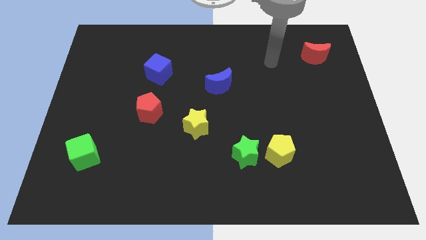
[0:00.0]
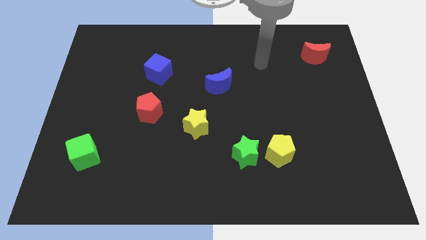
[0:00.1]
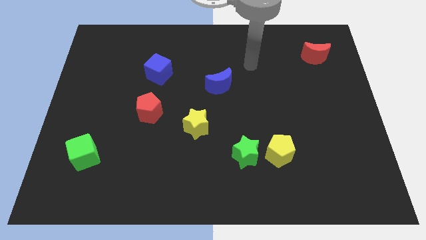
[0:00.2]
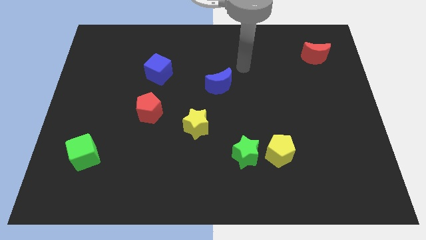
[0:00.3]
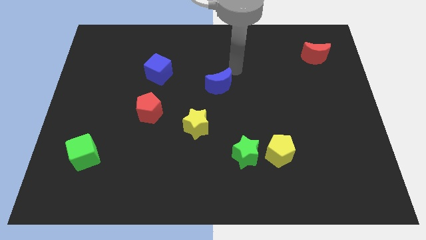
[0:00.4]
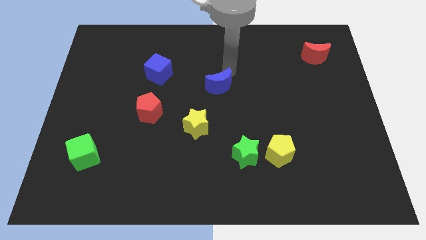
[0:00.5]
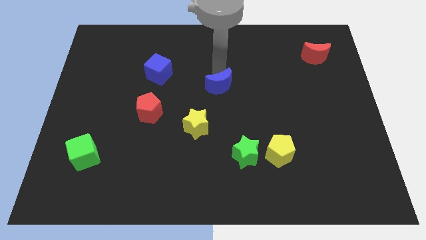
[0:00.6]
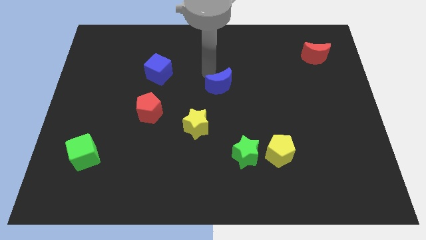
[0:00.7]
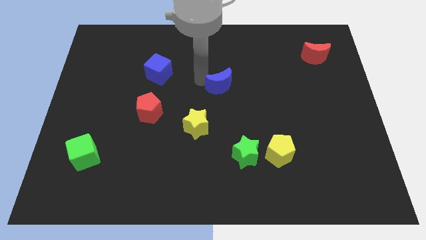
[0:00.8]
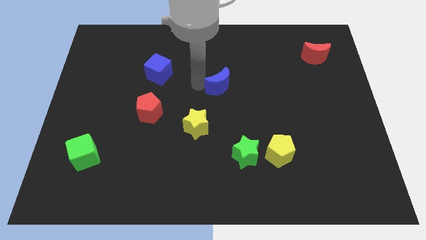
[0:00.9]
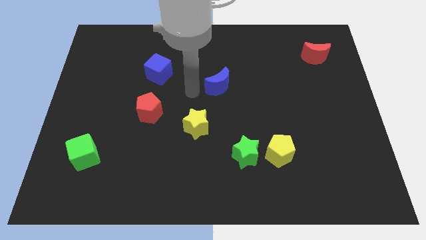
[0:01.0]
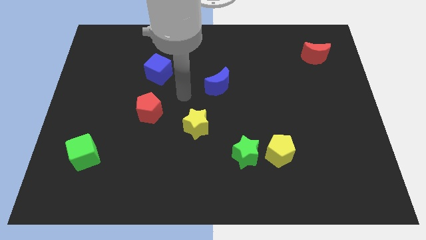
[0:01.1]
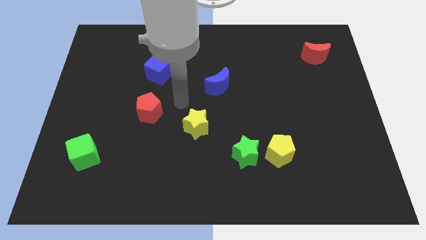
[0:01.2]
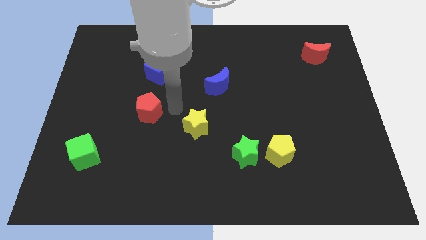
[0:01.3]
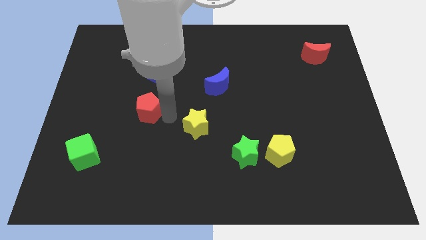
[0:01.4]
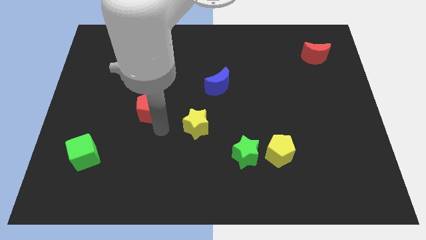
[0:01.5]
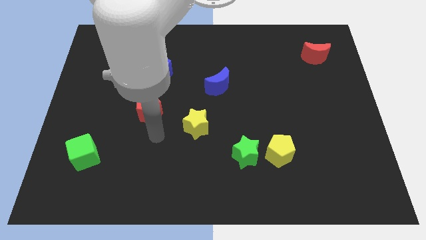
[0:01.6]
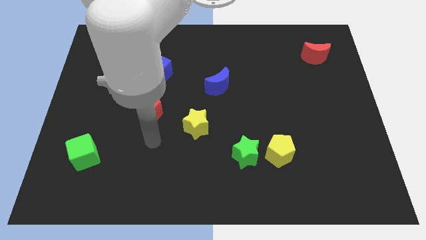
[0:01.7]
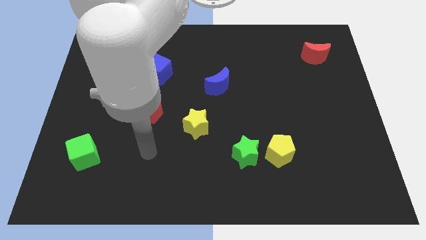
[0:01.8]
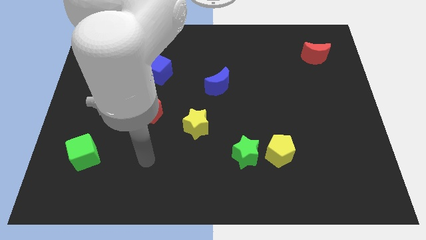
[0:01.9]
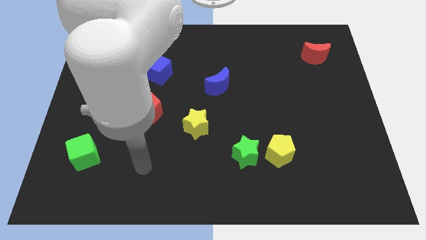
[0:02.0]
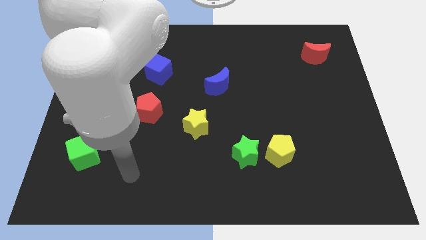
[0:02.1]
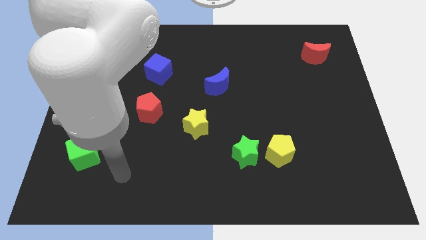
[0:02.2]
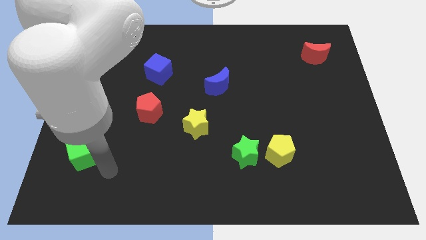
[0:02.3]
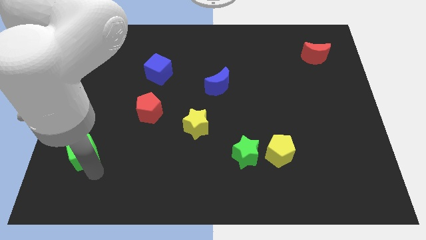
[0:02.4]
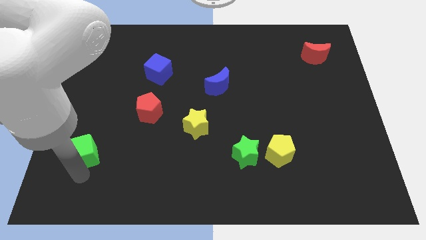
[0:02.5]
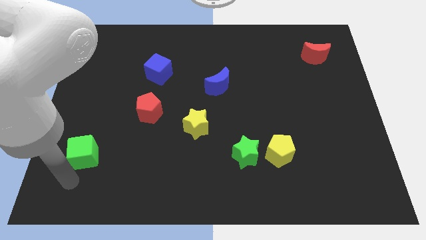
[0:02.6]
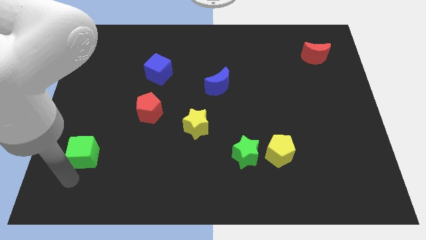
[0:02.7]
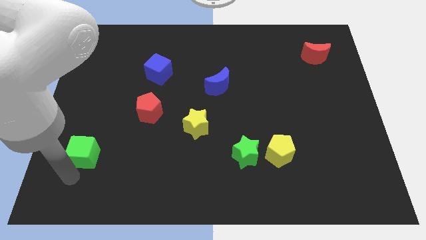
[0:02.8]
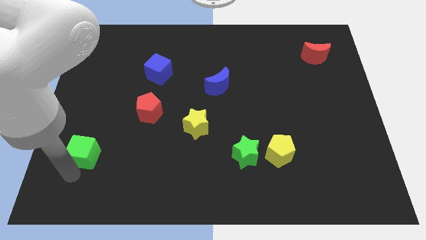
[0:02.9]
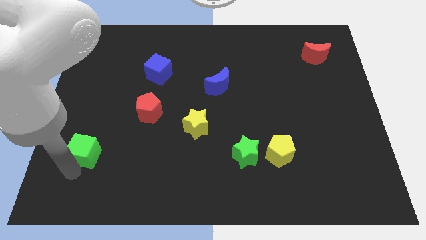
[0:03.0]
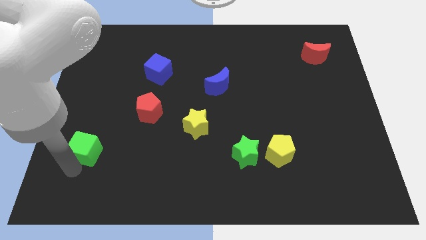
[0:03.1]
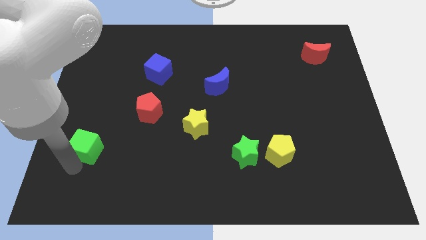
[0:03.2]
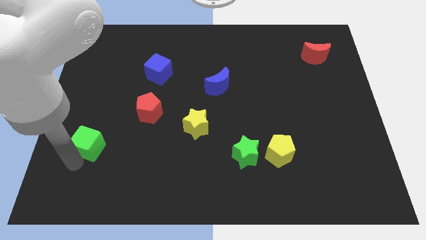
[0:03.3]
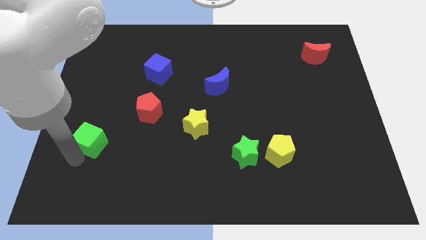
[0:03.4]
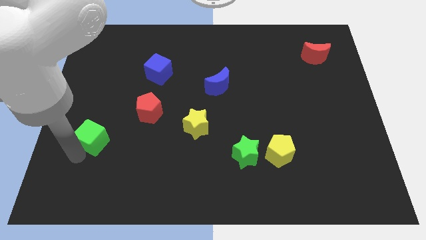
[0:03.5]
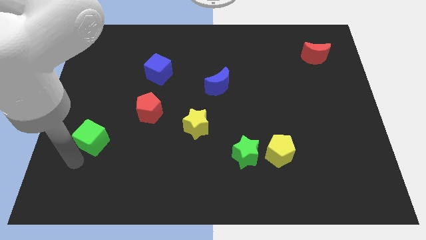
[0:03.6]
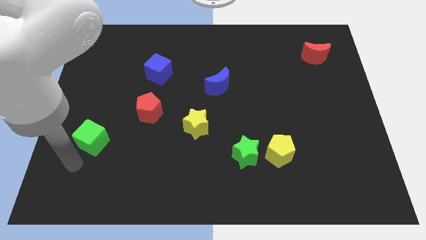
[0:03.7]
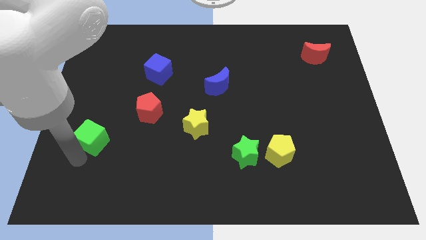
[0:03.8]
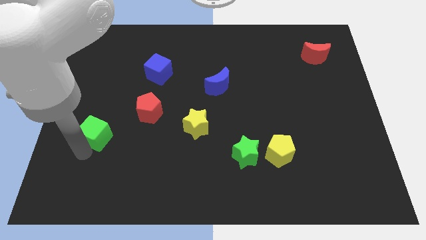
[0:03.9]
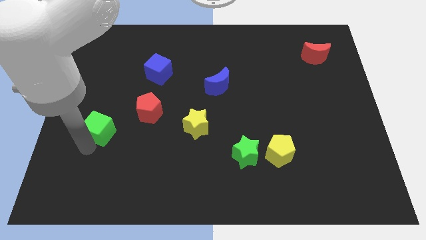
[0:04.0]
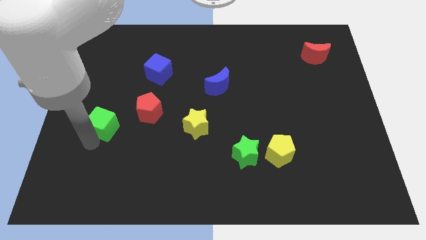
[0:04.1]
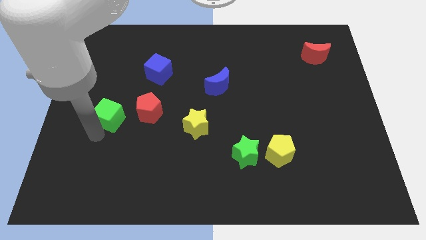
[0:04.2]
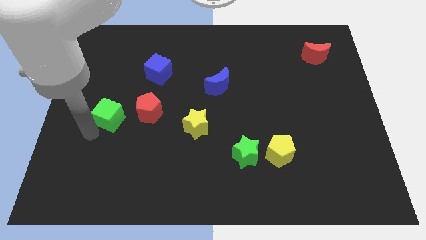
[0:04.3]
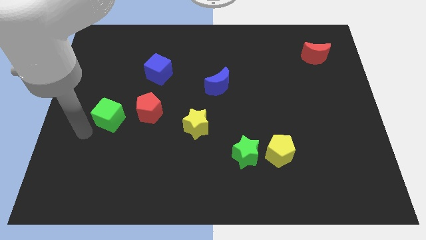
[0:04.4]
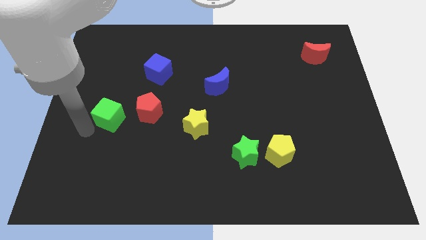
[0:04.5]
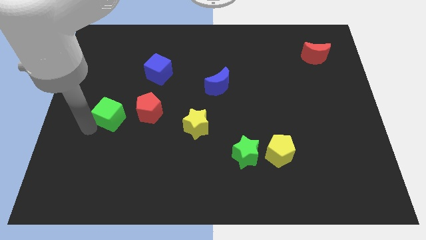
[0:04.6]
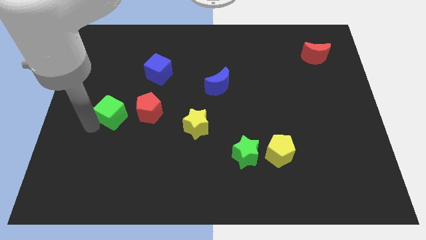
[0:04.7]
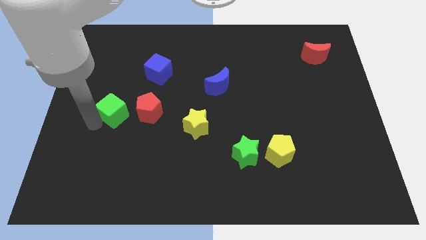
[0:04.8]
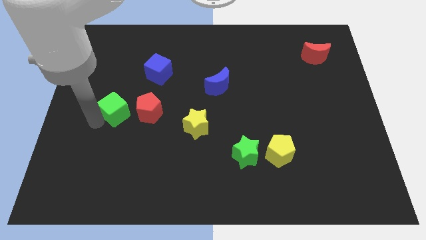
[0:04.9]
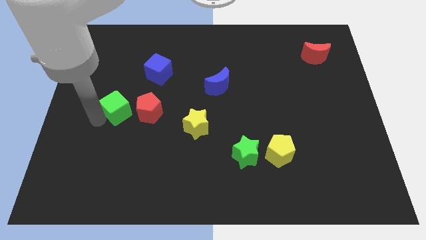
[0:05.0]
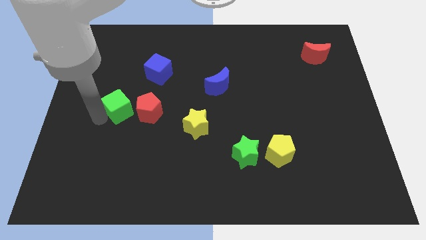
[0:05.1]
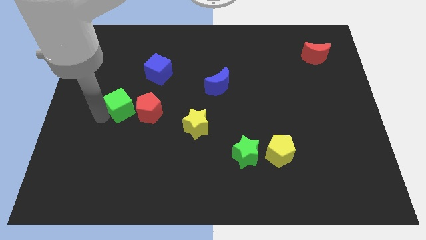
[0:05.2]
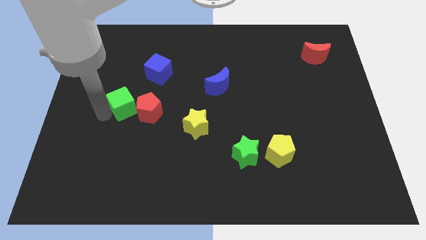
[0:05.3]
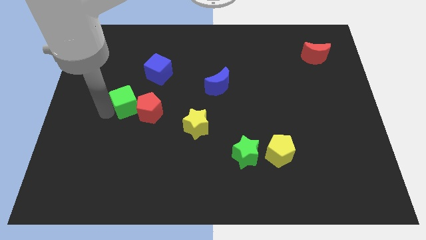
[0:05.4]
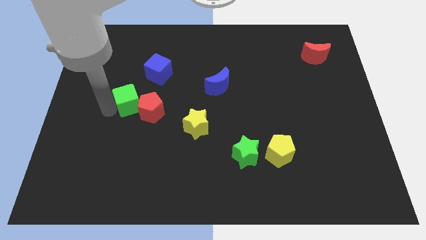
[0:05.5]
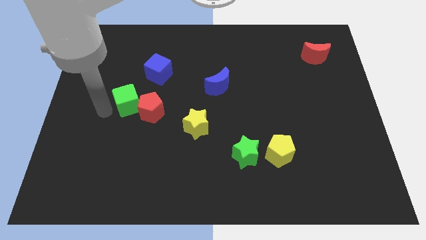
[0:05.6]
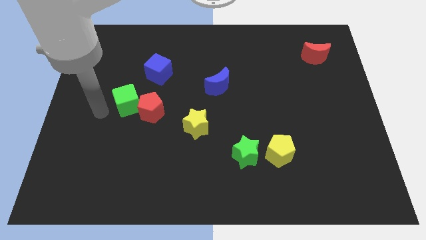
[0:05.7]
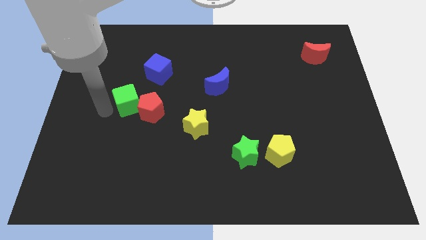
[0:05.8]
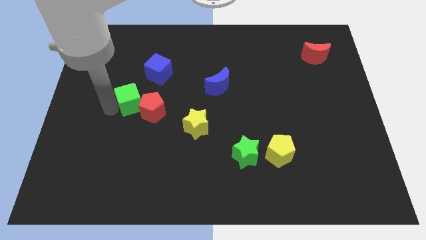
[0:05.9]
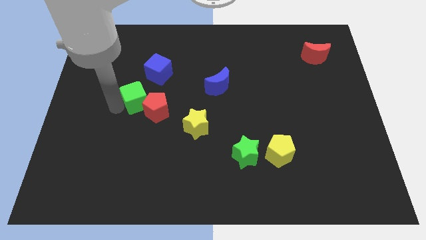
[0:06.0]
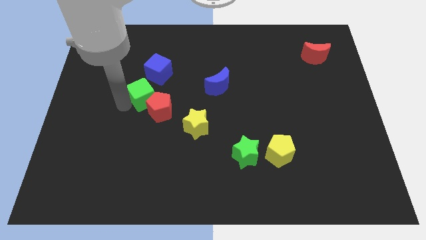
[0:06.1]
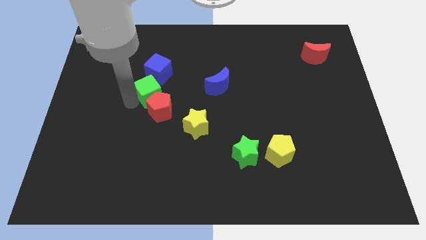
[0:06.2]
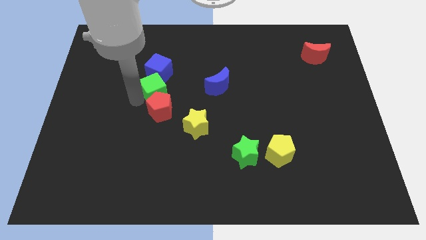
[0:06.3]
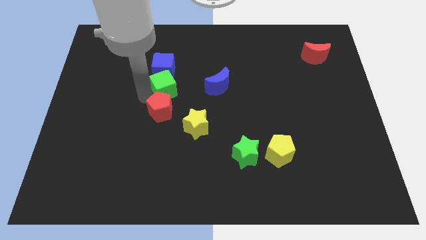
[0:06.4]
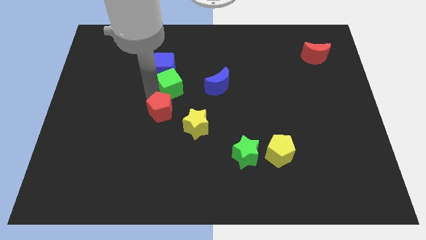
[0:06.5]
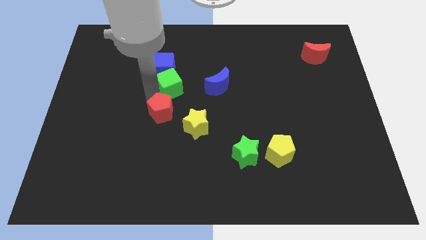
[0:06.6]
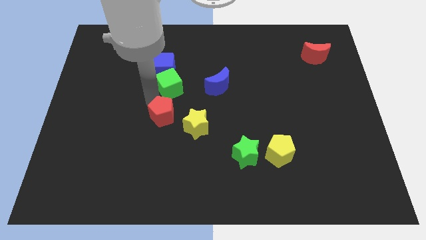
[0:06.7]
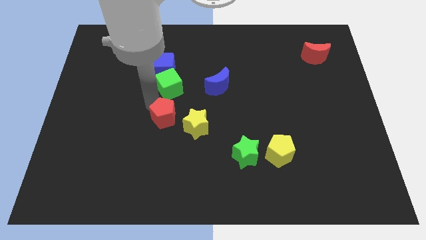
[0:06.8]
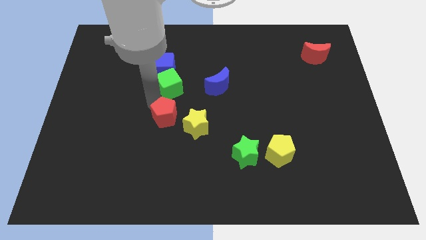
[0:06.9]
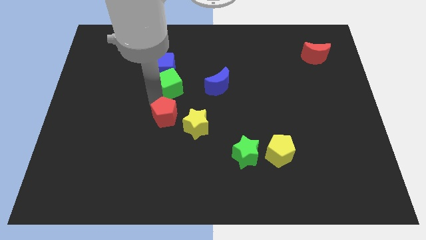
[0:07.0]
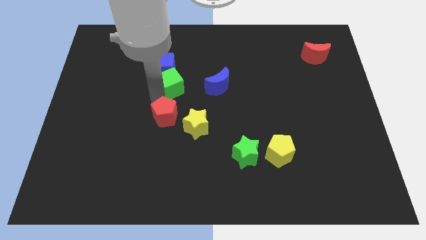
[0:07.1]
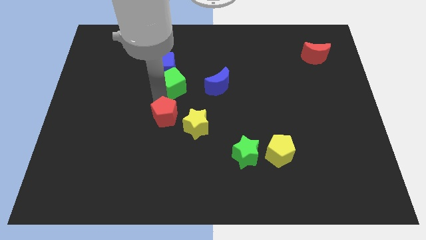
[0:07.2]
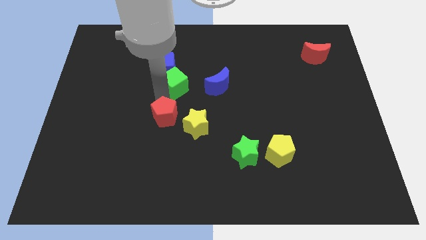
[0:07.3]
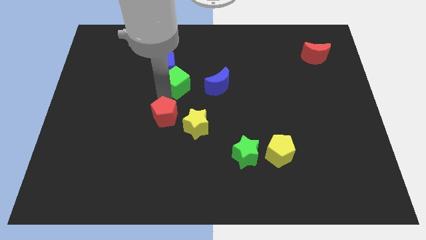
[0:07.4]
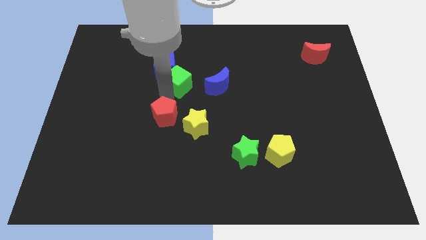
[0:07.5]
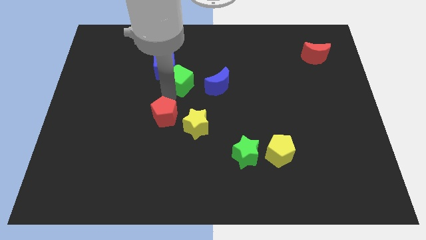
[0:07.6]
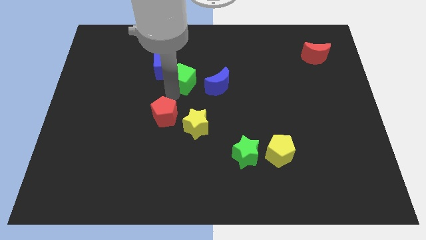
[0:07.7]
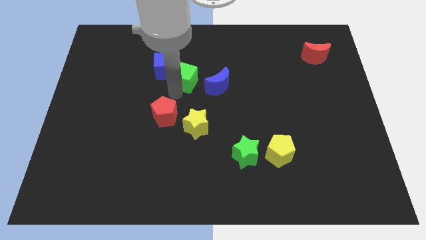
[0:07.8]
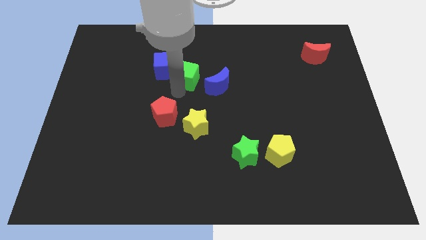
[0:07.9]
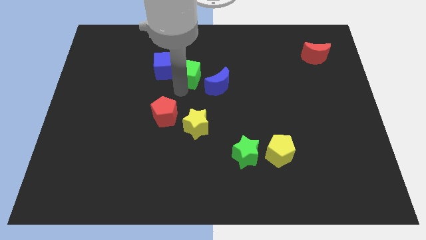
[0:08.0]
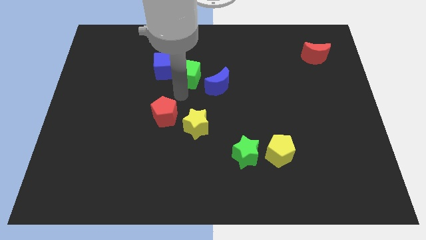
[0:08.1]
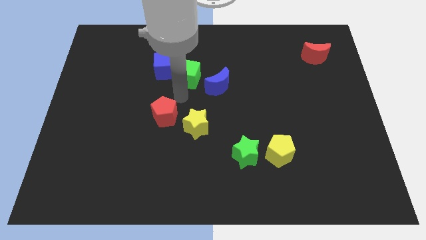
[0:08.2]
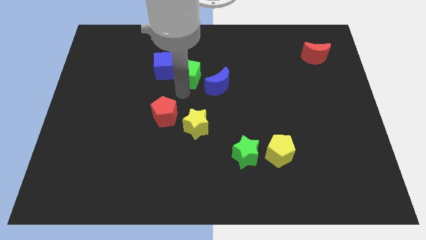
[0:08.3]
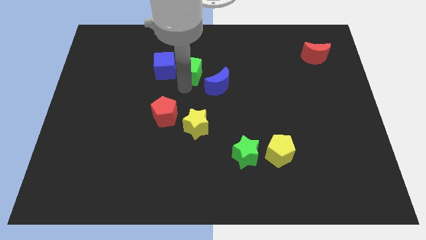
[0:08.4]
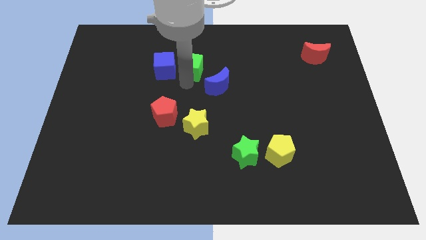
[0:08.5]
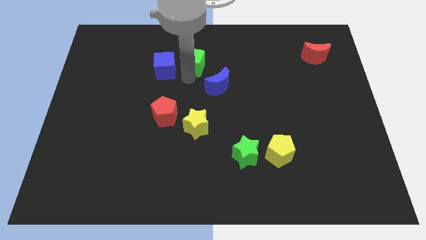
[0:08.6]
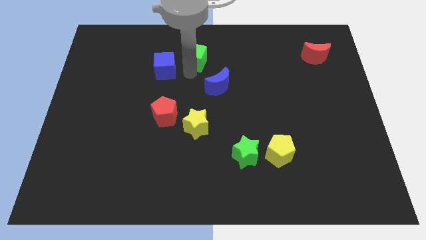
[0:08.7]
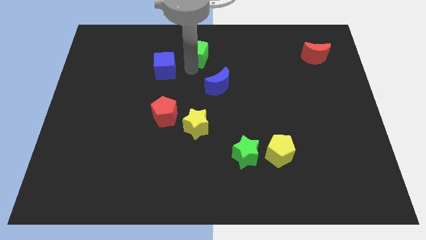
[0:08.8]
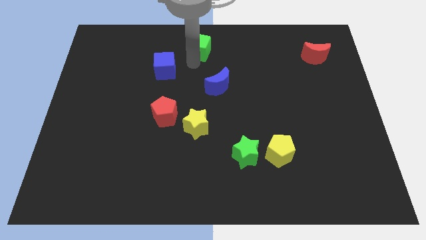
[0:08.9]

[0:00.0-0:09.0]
slide the green cube to the top side
